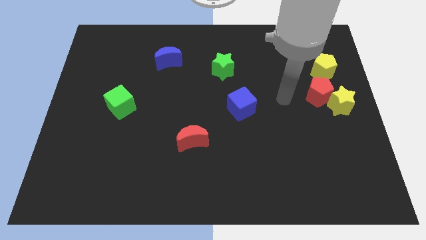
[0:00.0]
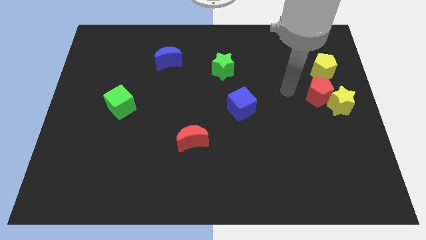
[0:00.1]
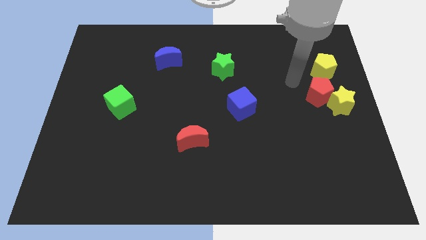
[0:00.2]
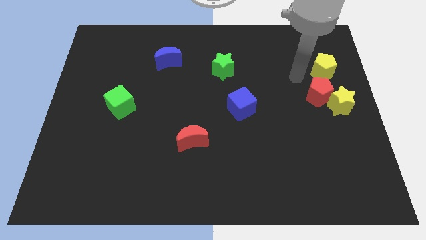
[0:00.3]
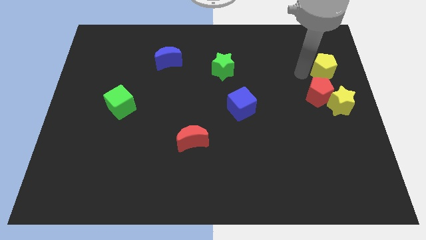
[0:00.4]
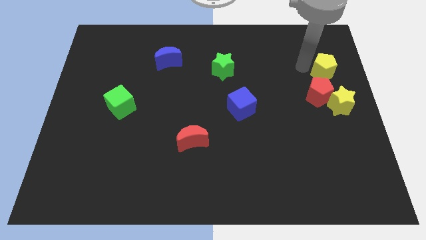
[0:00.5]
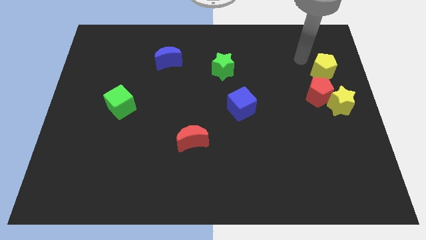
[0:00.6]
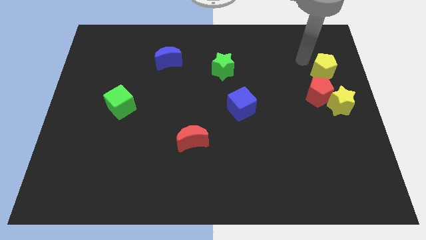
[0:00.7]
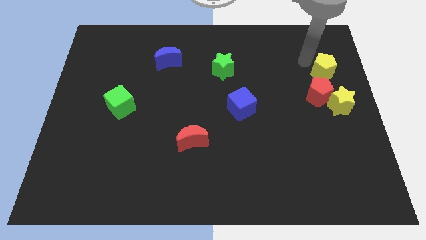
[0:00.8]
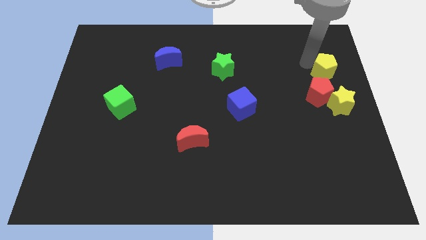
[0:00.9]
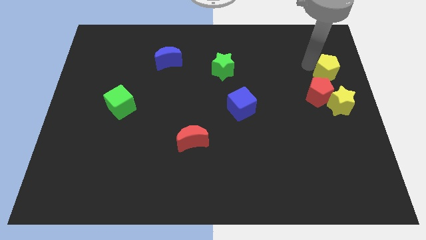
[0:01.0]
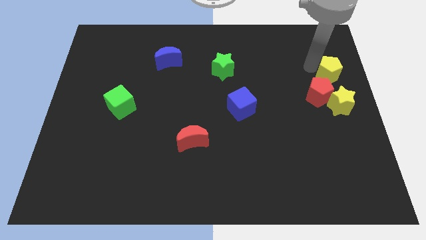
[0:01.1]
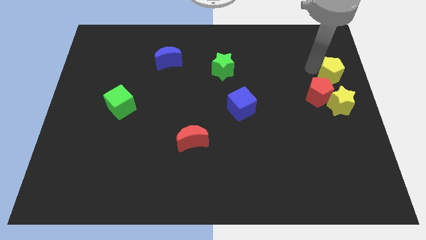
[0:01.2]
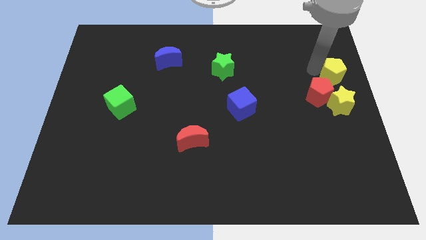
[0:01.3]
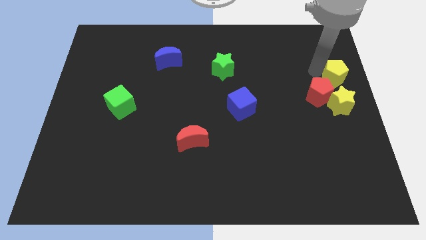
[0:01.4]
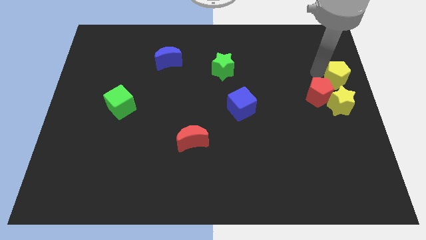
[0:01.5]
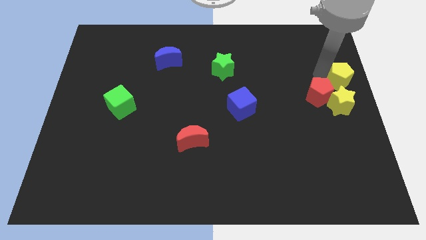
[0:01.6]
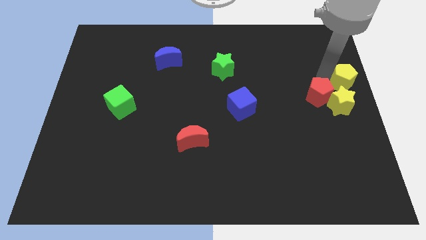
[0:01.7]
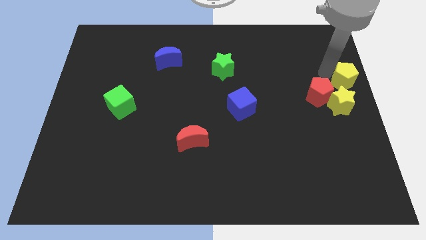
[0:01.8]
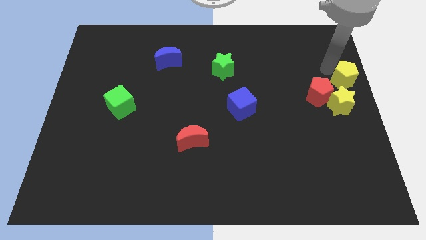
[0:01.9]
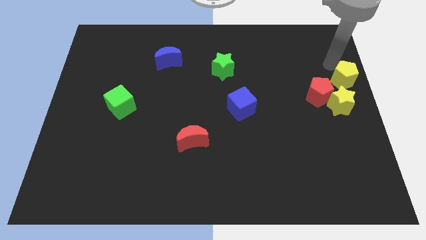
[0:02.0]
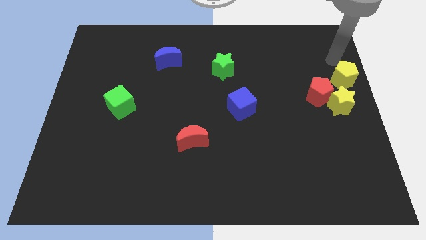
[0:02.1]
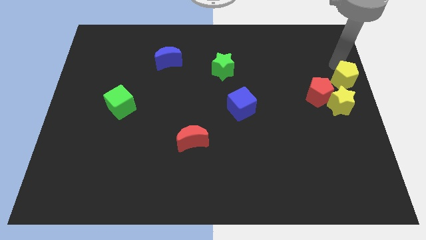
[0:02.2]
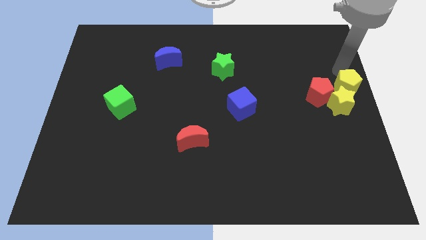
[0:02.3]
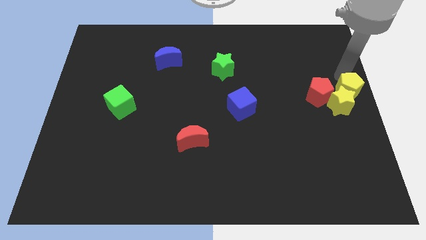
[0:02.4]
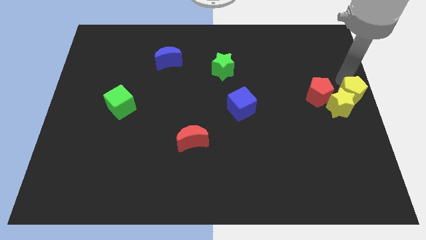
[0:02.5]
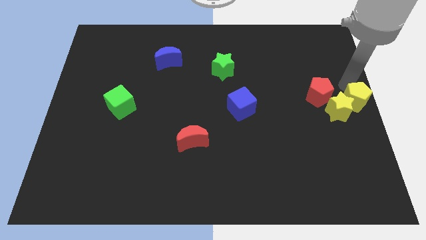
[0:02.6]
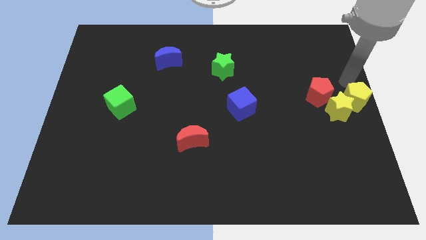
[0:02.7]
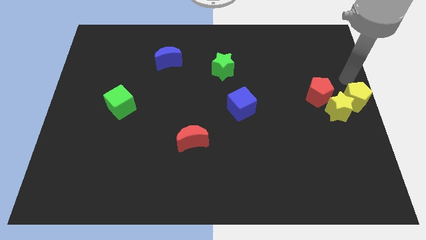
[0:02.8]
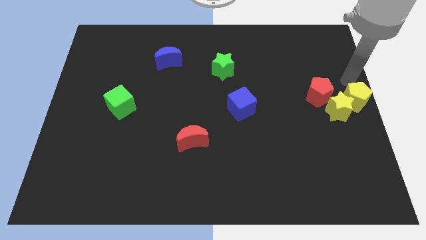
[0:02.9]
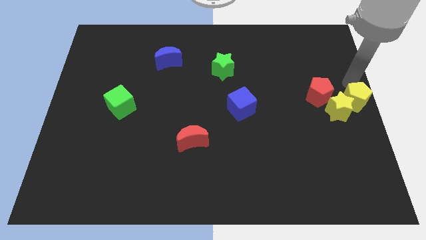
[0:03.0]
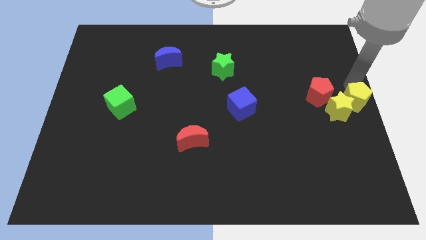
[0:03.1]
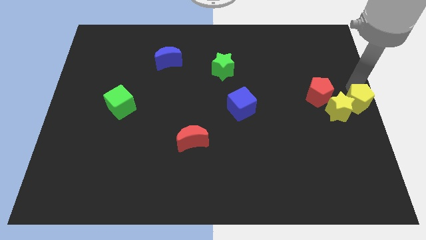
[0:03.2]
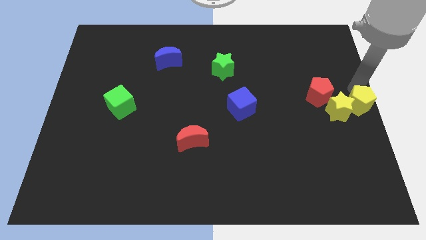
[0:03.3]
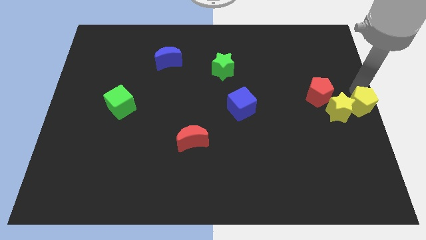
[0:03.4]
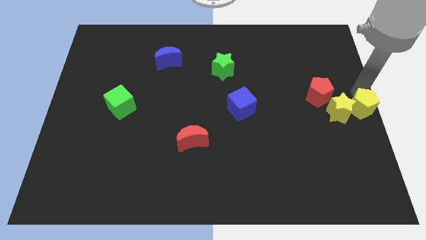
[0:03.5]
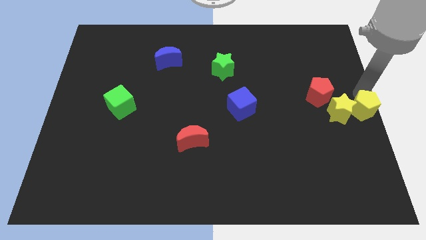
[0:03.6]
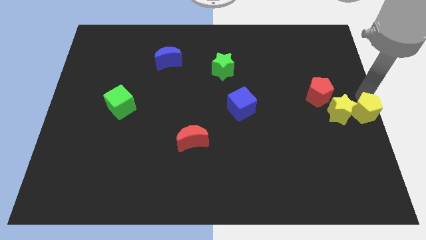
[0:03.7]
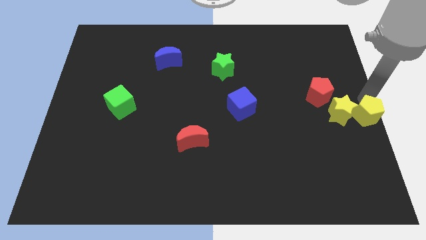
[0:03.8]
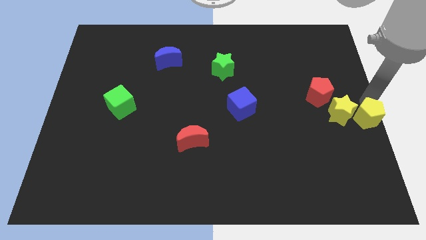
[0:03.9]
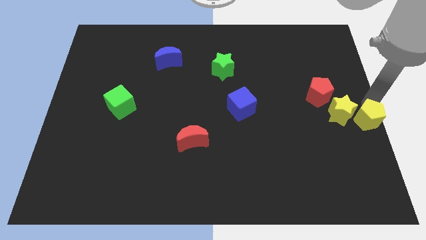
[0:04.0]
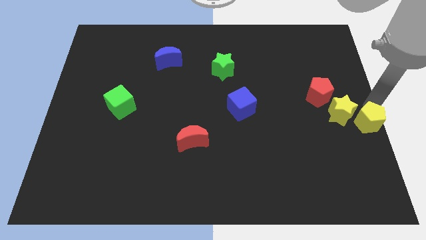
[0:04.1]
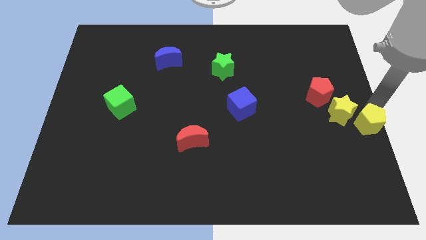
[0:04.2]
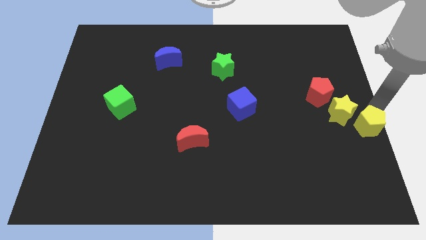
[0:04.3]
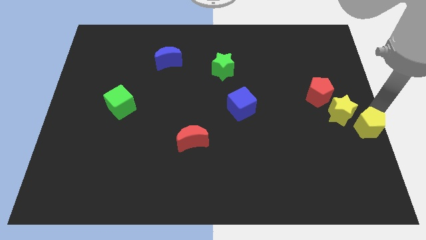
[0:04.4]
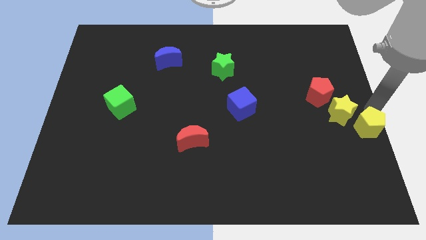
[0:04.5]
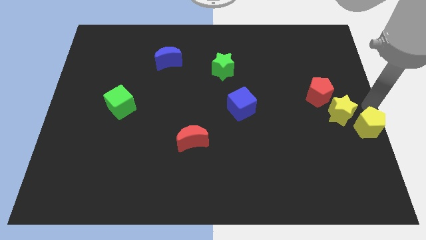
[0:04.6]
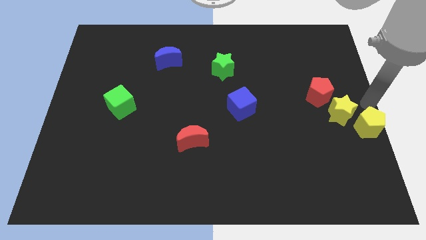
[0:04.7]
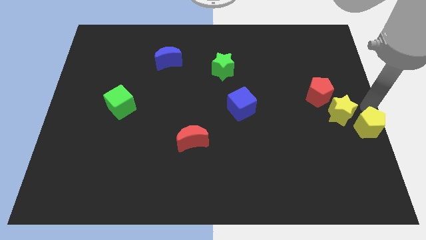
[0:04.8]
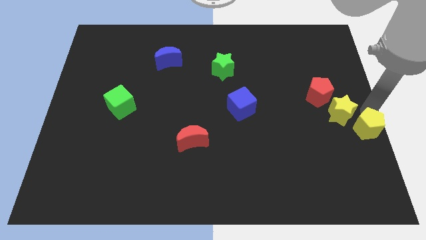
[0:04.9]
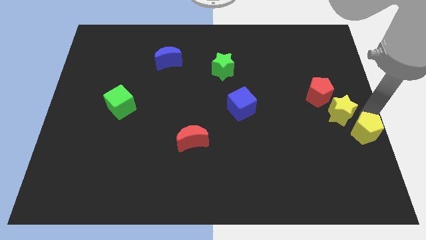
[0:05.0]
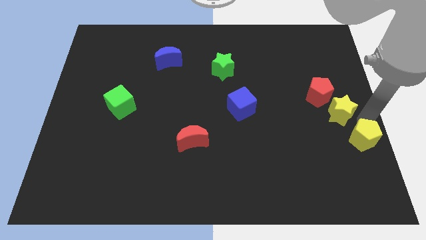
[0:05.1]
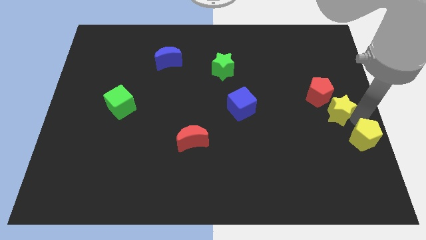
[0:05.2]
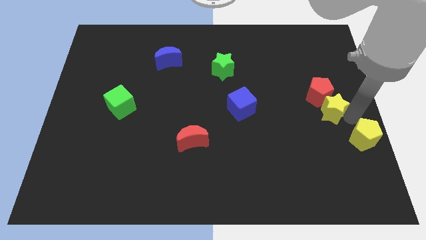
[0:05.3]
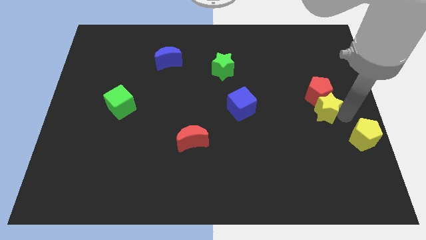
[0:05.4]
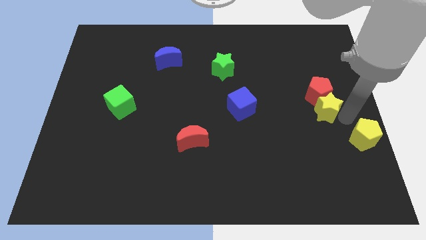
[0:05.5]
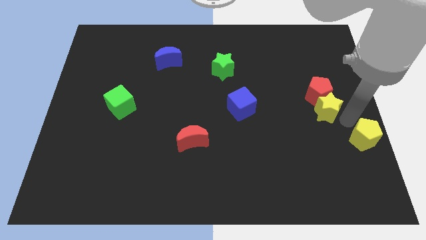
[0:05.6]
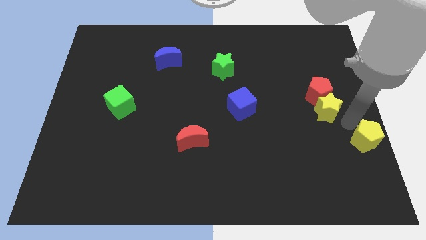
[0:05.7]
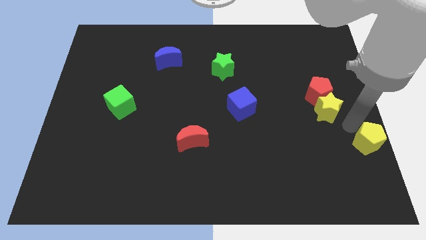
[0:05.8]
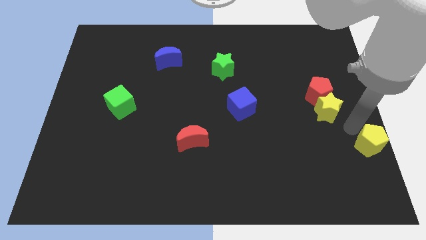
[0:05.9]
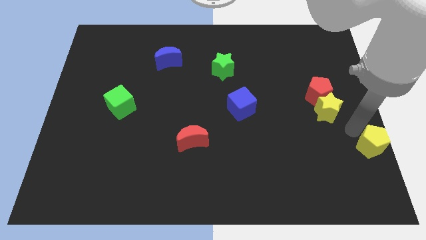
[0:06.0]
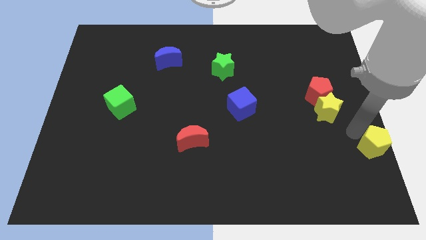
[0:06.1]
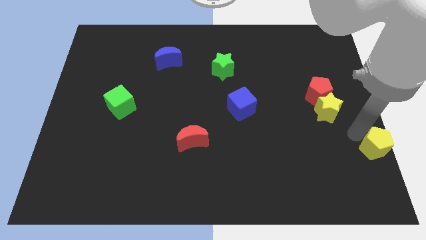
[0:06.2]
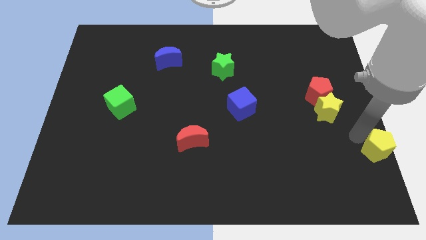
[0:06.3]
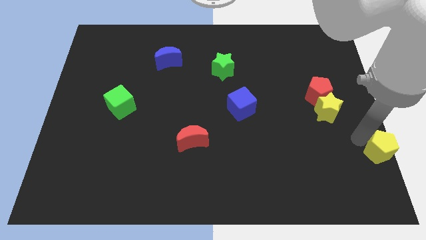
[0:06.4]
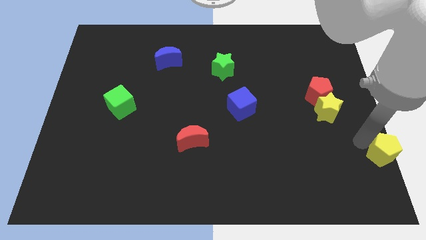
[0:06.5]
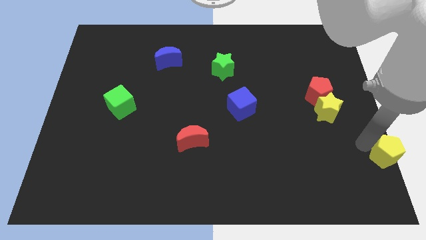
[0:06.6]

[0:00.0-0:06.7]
move the yellow pentagon to the bottom right of the board
